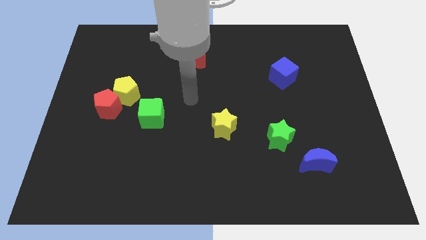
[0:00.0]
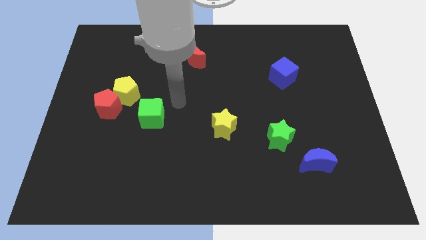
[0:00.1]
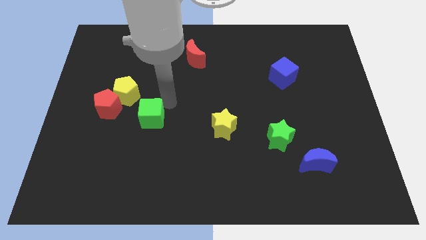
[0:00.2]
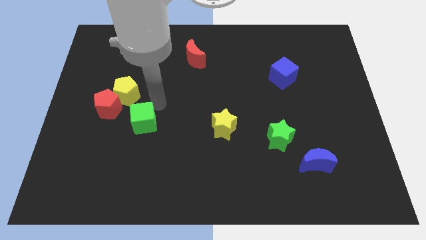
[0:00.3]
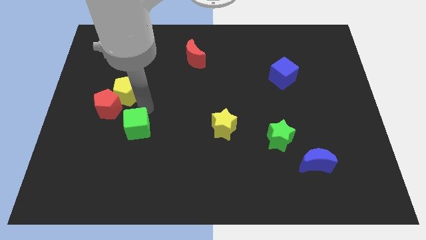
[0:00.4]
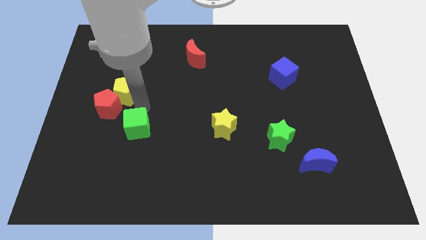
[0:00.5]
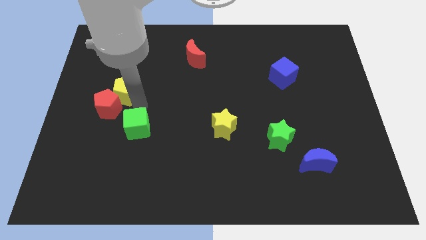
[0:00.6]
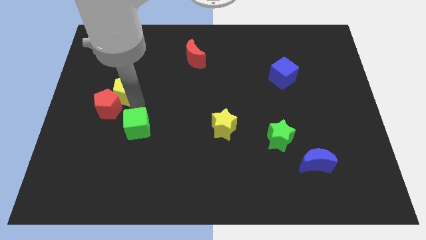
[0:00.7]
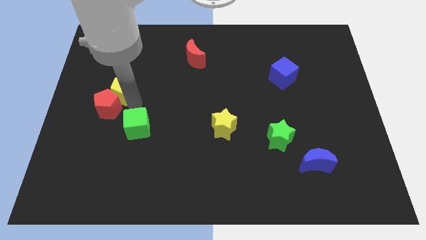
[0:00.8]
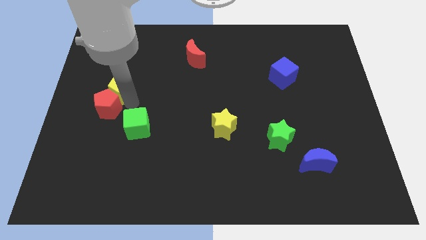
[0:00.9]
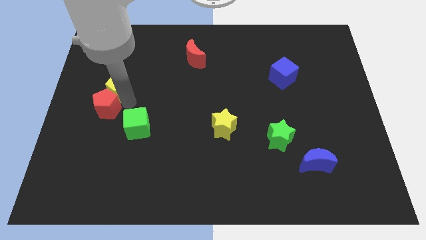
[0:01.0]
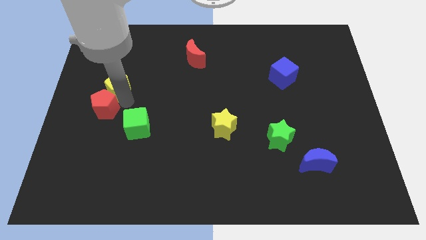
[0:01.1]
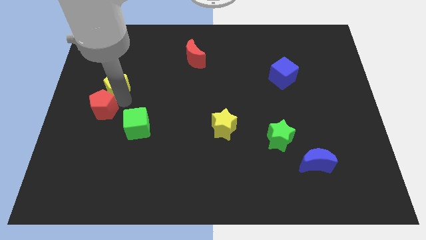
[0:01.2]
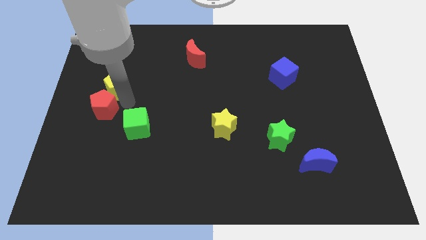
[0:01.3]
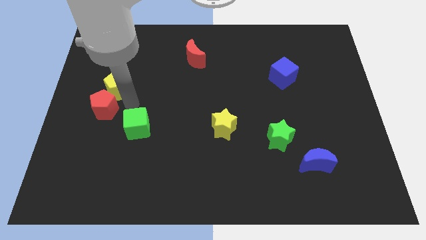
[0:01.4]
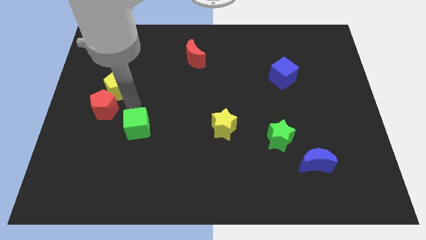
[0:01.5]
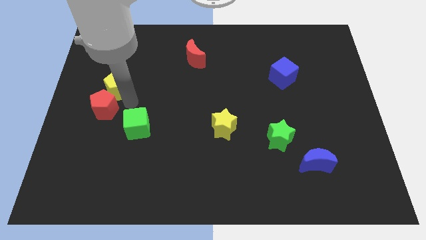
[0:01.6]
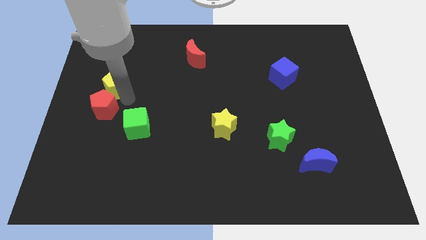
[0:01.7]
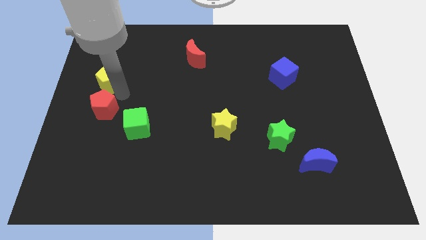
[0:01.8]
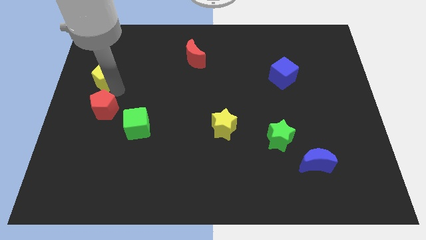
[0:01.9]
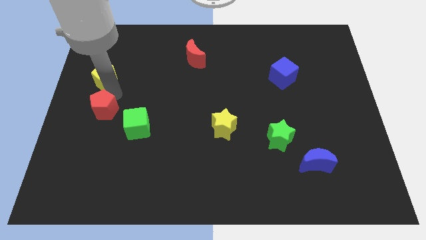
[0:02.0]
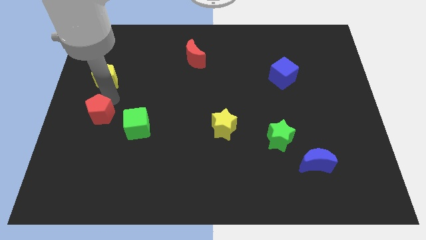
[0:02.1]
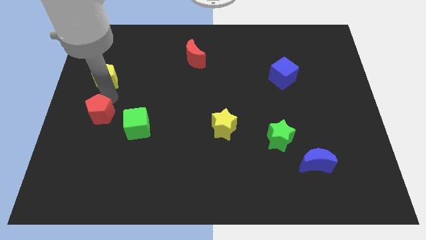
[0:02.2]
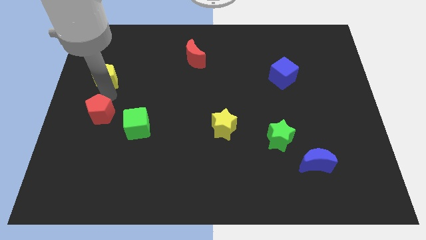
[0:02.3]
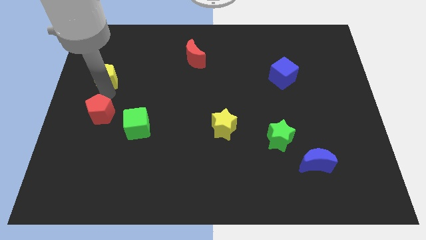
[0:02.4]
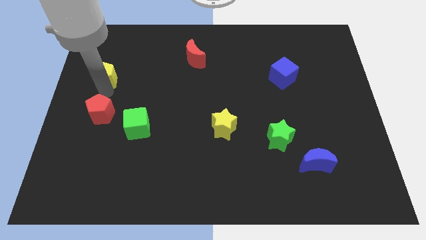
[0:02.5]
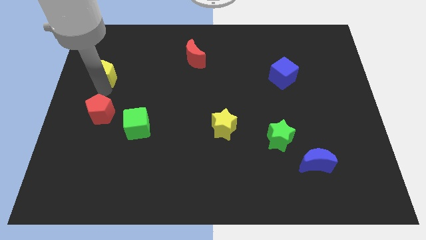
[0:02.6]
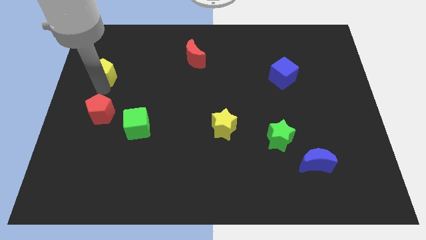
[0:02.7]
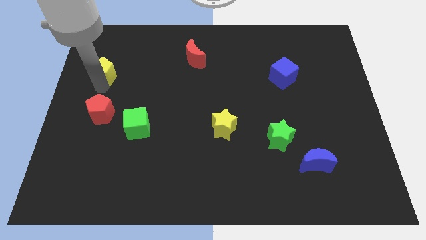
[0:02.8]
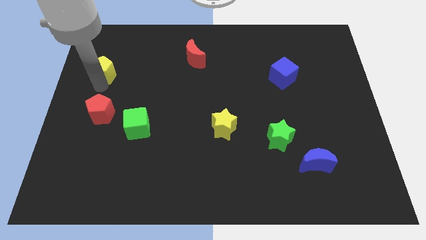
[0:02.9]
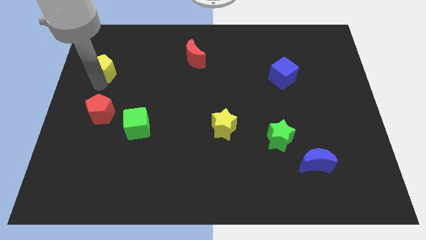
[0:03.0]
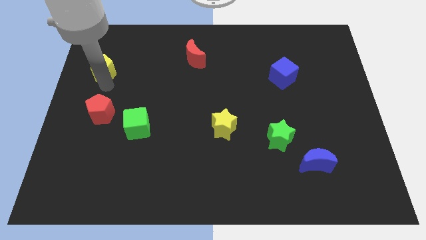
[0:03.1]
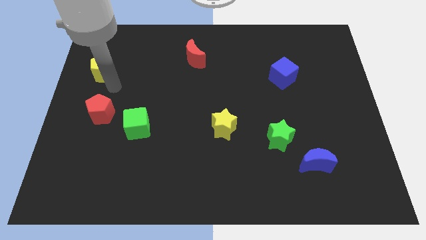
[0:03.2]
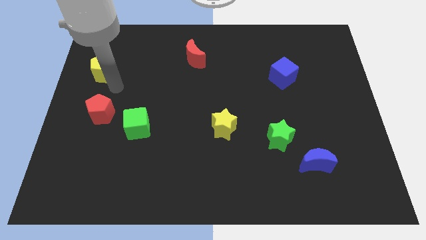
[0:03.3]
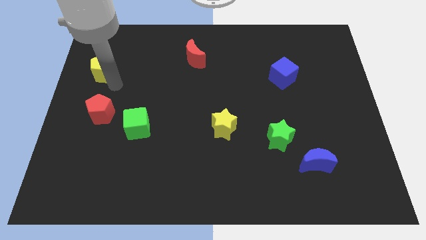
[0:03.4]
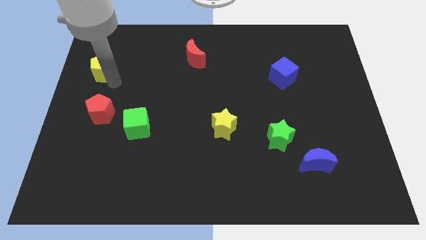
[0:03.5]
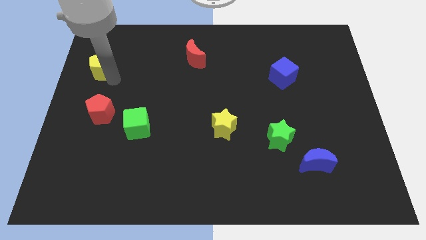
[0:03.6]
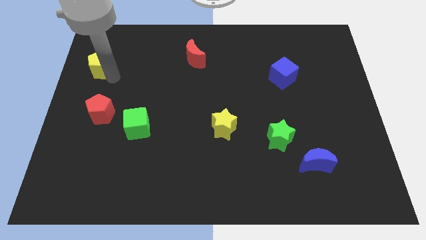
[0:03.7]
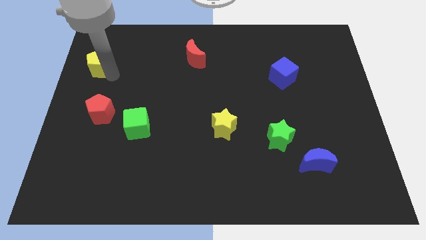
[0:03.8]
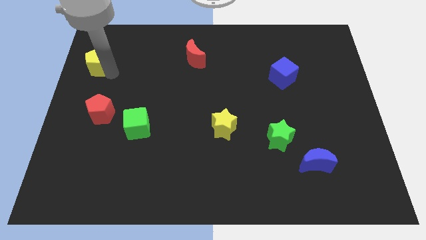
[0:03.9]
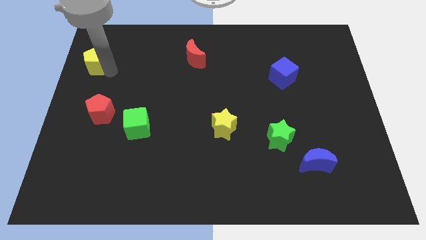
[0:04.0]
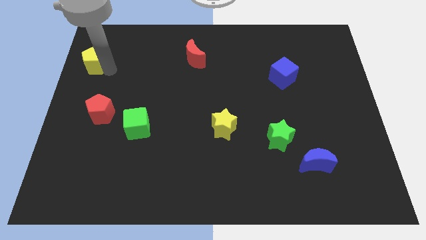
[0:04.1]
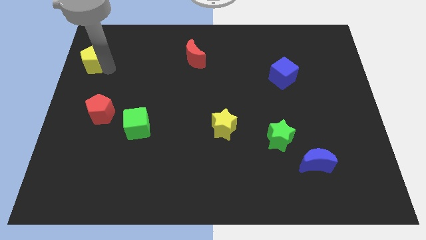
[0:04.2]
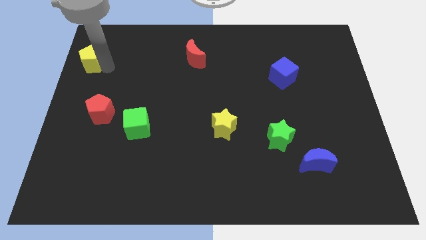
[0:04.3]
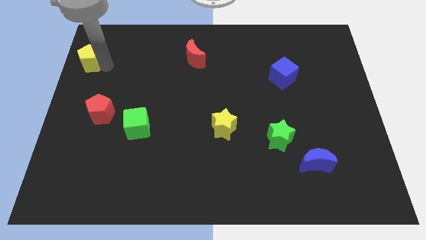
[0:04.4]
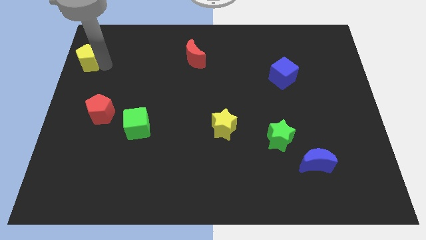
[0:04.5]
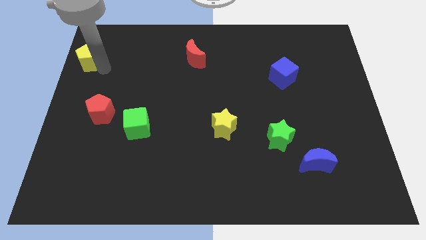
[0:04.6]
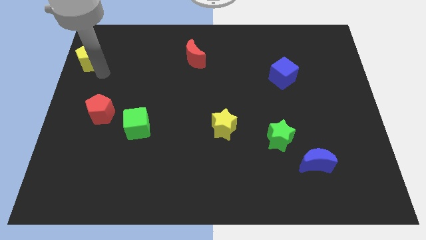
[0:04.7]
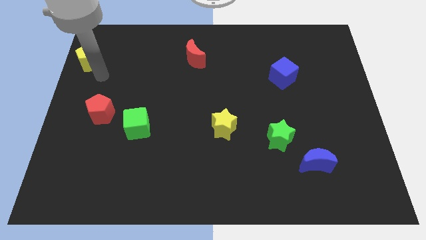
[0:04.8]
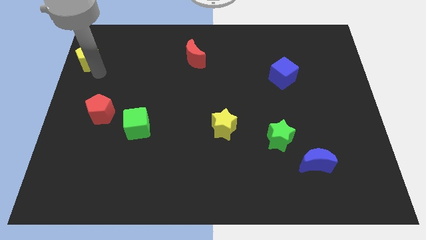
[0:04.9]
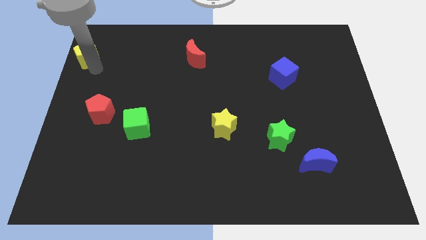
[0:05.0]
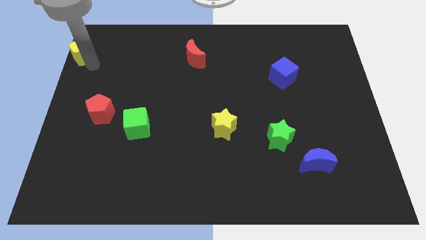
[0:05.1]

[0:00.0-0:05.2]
put the yellow pentagon to the top left corner

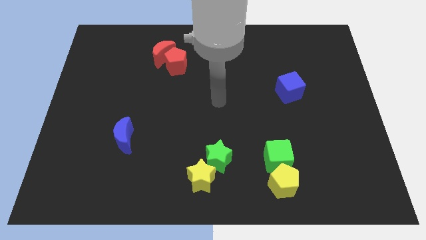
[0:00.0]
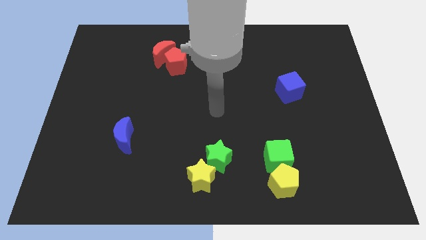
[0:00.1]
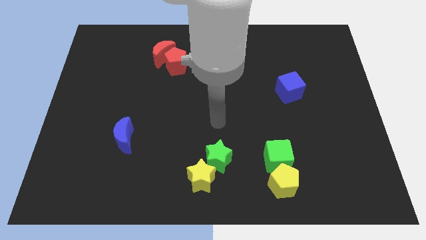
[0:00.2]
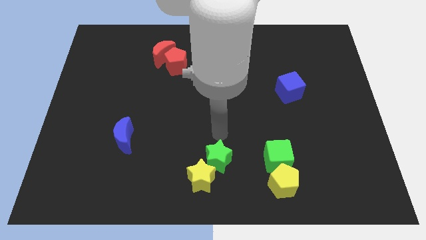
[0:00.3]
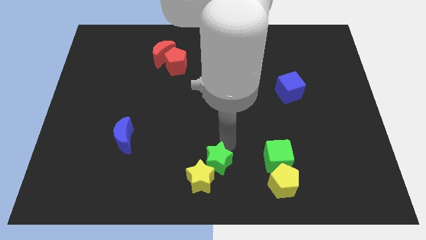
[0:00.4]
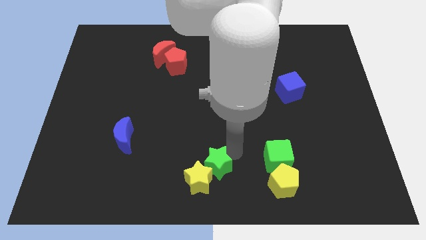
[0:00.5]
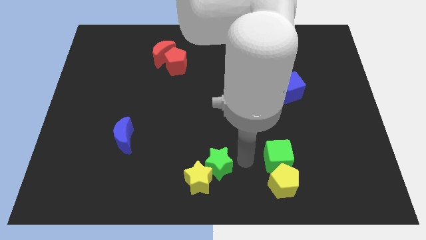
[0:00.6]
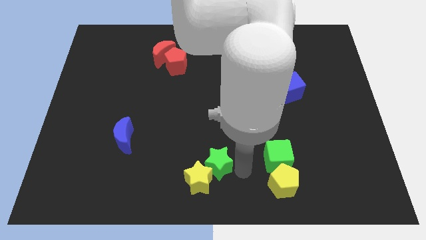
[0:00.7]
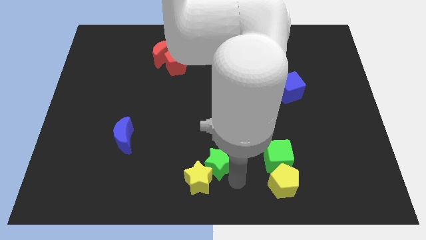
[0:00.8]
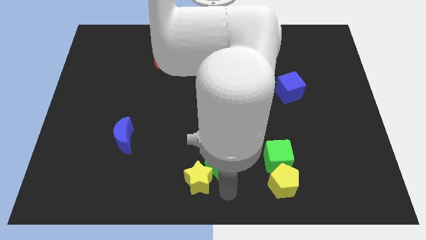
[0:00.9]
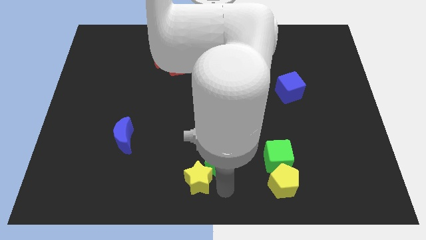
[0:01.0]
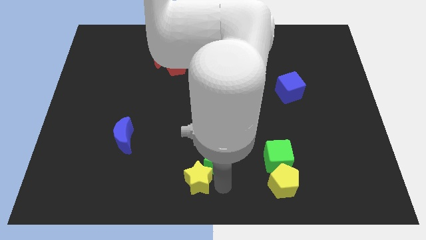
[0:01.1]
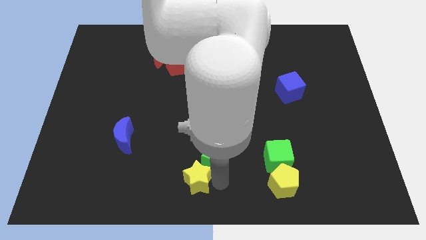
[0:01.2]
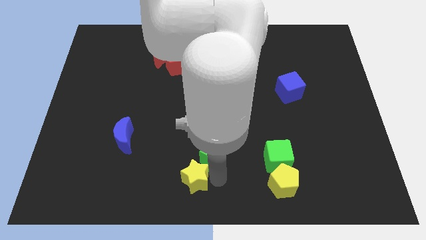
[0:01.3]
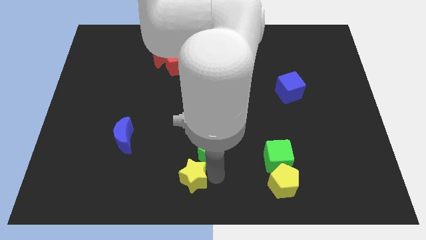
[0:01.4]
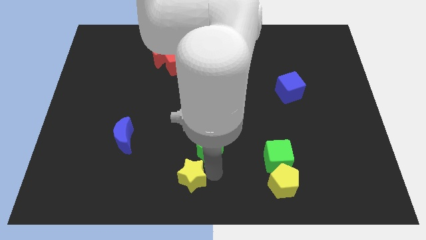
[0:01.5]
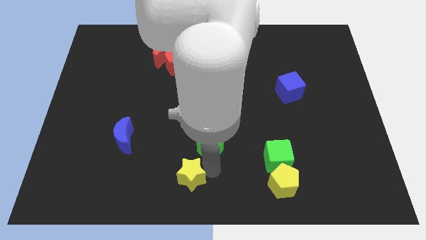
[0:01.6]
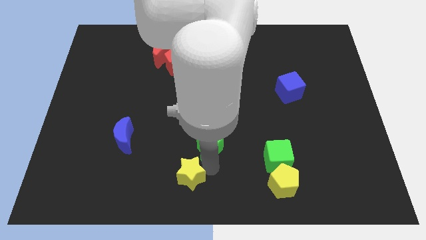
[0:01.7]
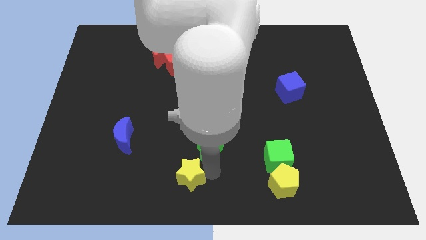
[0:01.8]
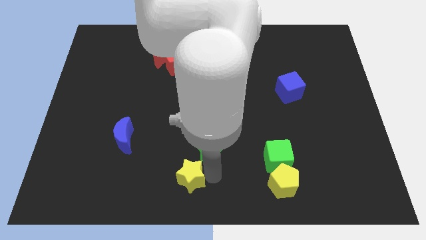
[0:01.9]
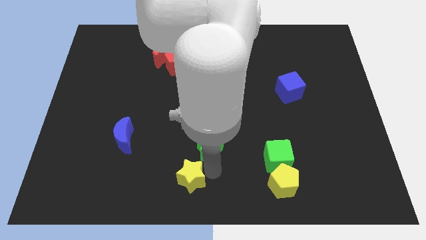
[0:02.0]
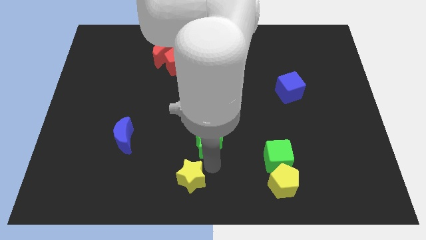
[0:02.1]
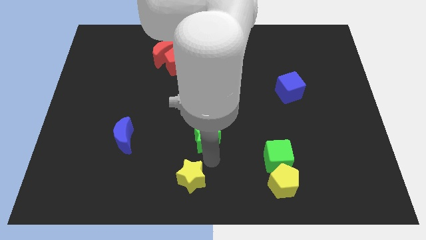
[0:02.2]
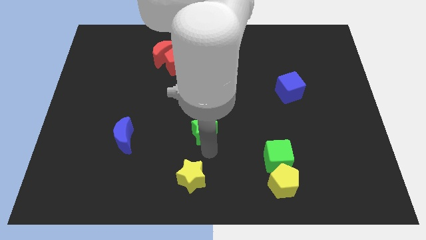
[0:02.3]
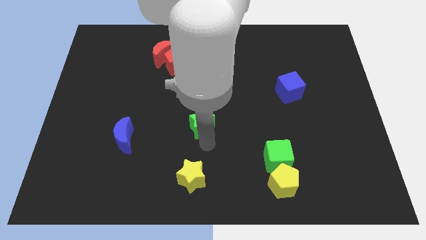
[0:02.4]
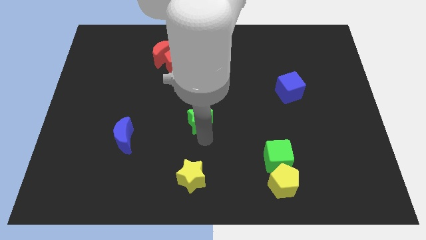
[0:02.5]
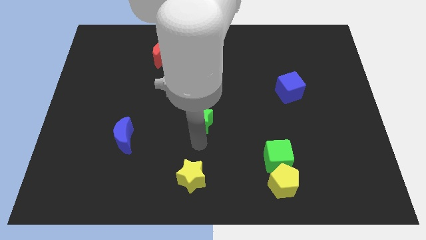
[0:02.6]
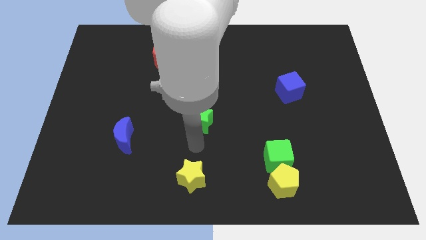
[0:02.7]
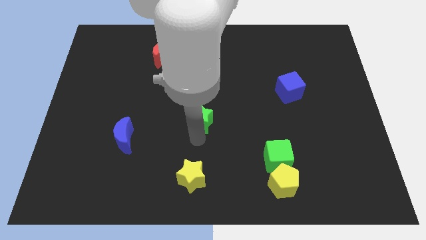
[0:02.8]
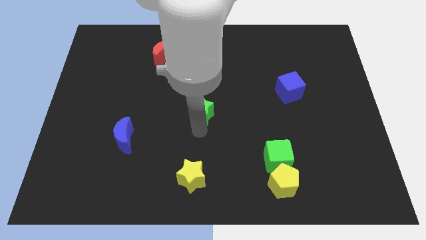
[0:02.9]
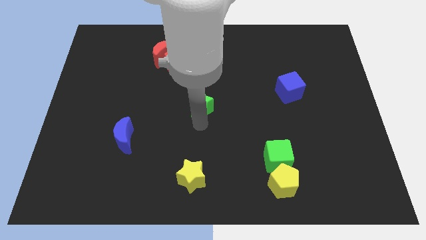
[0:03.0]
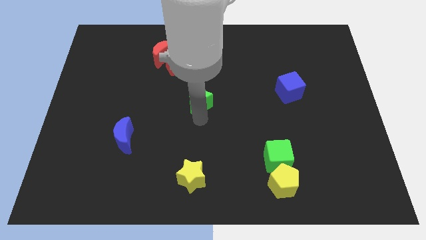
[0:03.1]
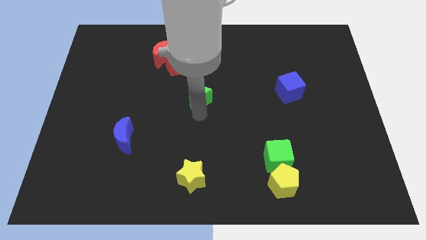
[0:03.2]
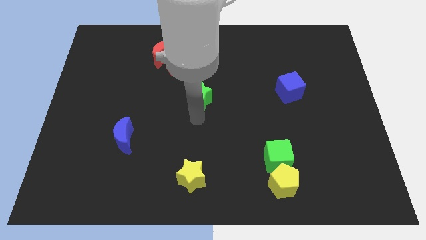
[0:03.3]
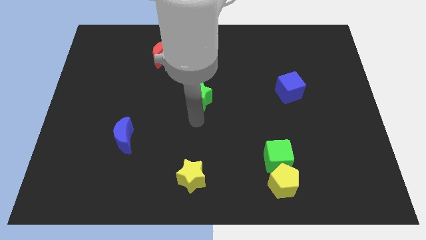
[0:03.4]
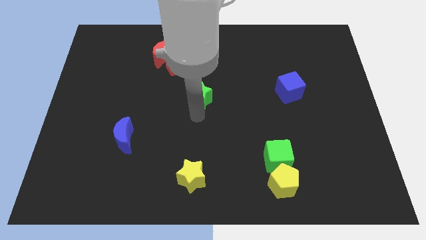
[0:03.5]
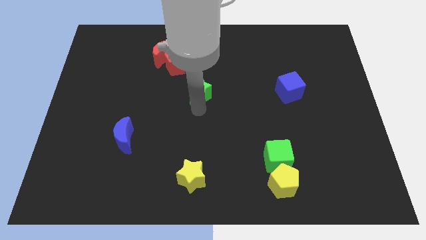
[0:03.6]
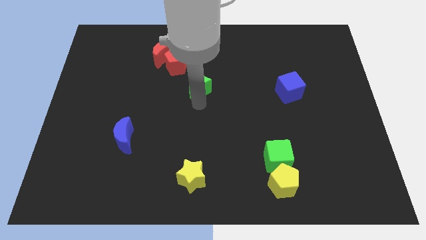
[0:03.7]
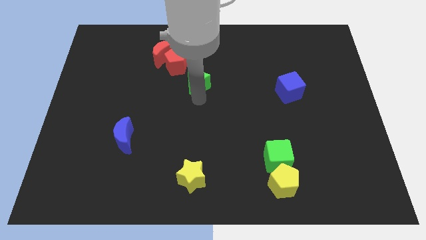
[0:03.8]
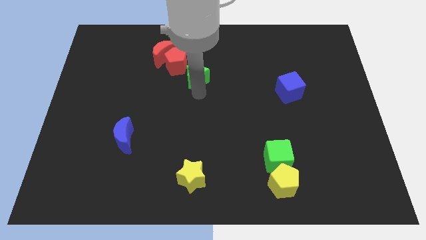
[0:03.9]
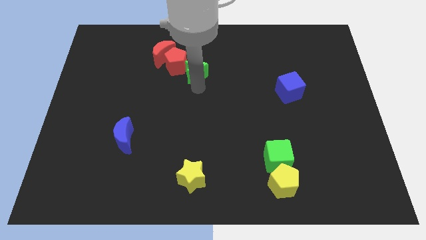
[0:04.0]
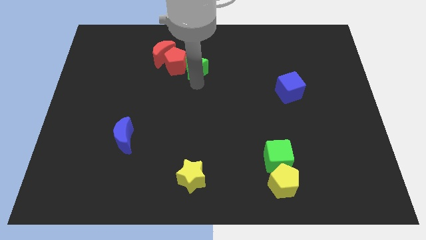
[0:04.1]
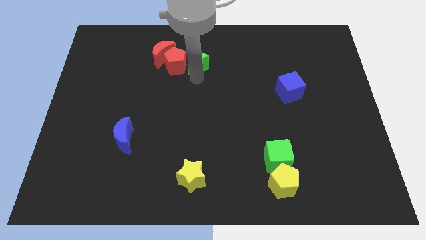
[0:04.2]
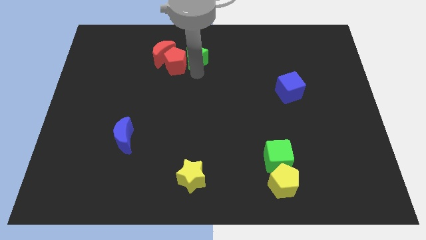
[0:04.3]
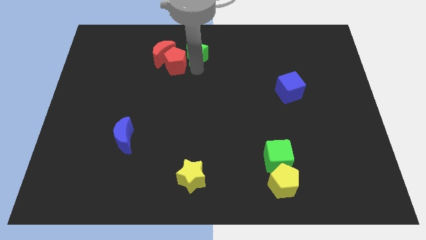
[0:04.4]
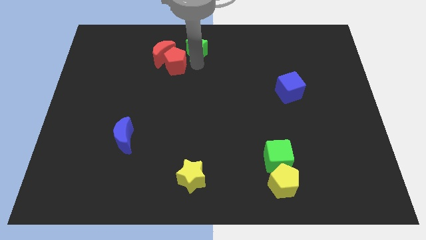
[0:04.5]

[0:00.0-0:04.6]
push the green star to the towards your base
